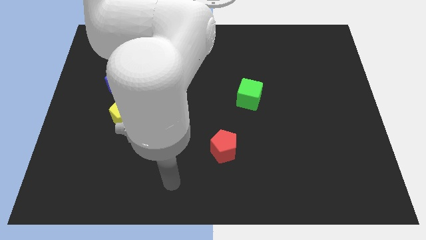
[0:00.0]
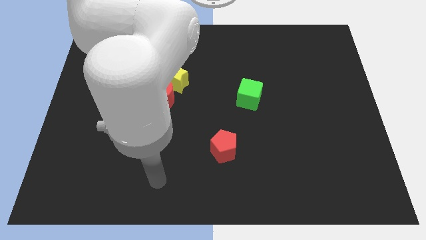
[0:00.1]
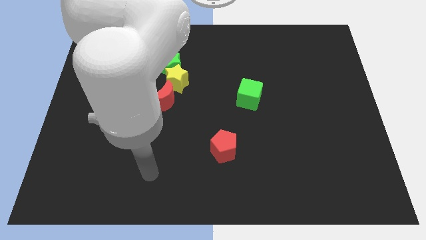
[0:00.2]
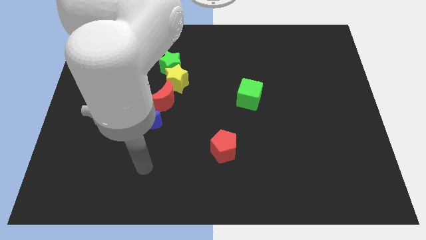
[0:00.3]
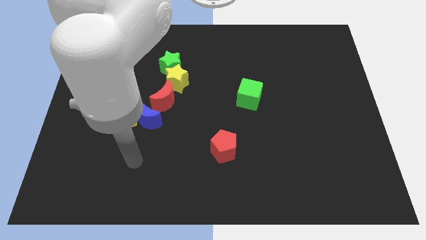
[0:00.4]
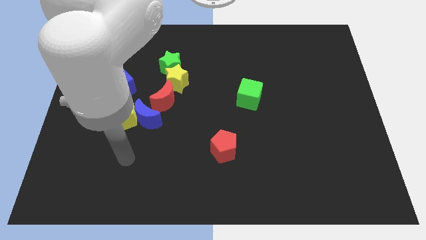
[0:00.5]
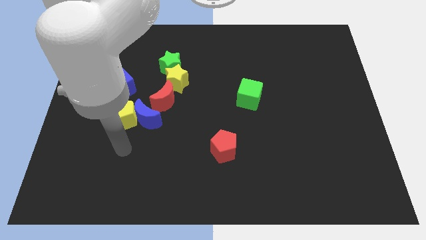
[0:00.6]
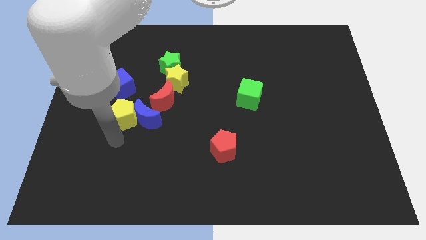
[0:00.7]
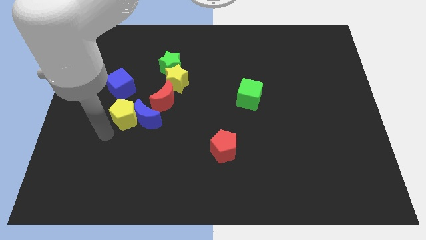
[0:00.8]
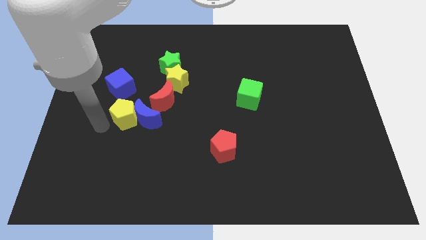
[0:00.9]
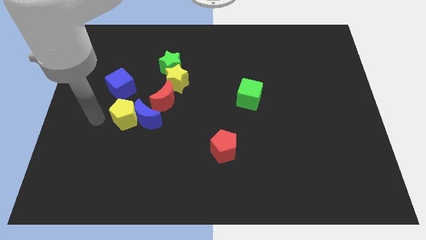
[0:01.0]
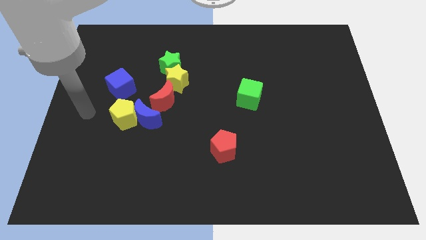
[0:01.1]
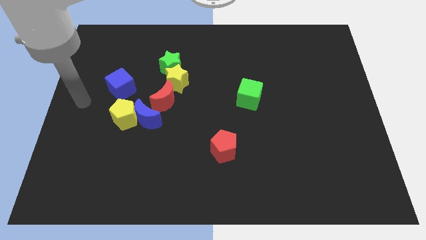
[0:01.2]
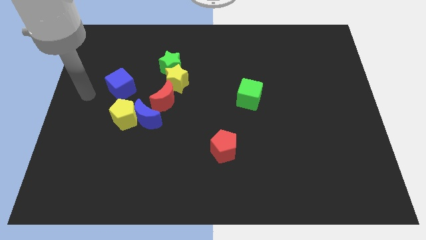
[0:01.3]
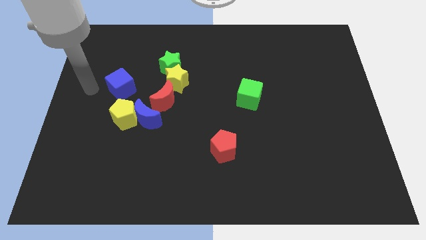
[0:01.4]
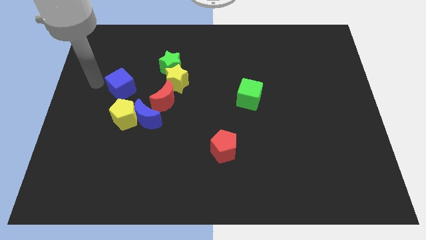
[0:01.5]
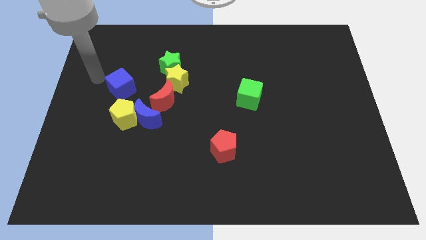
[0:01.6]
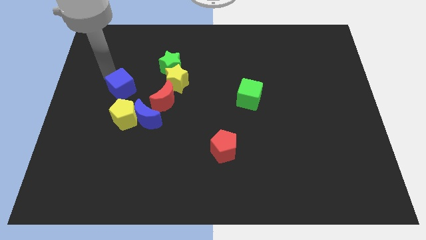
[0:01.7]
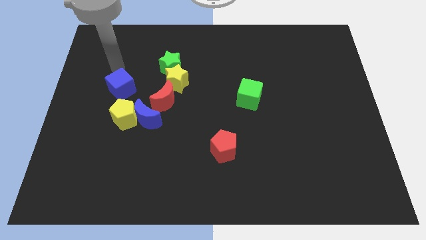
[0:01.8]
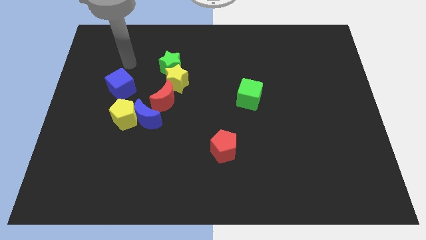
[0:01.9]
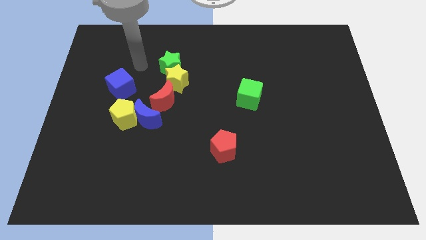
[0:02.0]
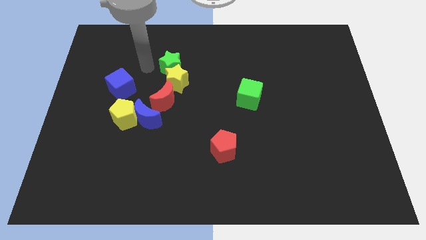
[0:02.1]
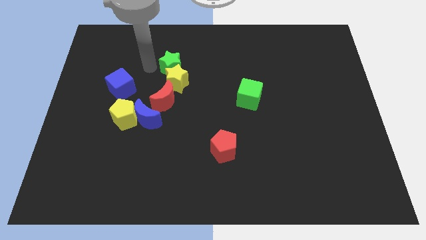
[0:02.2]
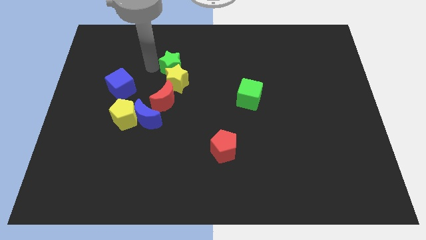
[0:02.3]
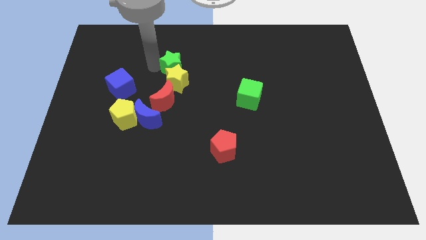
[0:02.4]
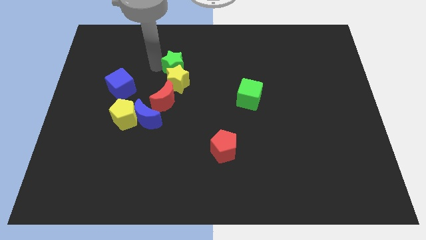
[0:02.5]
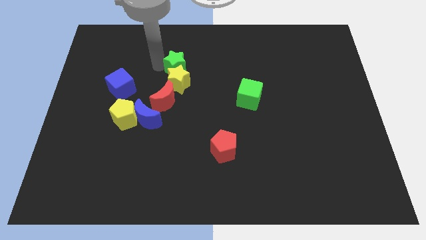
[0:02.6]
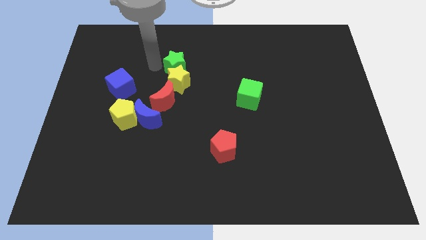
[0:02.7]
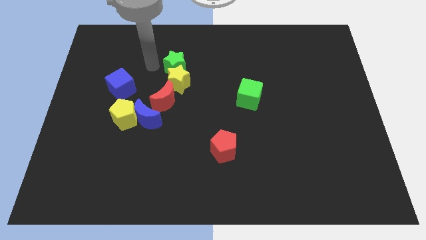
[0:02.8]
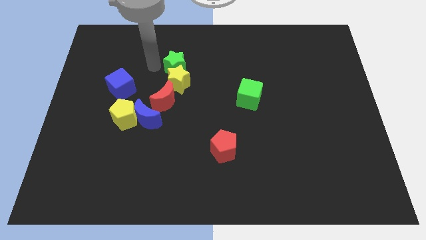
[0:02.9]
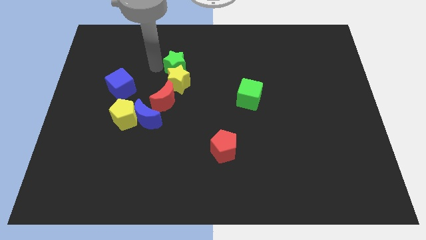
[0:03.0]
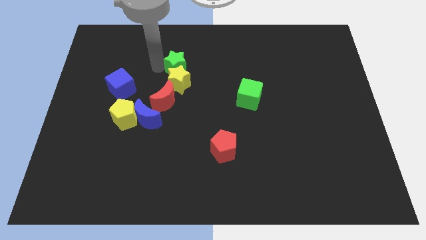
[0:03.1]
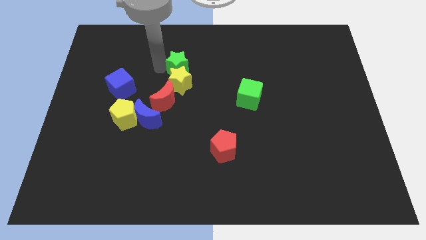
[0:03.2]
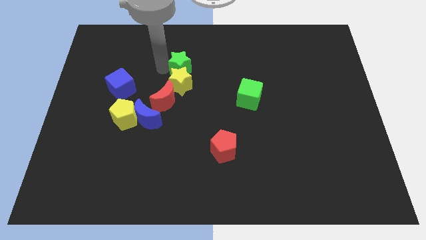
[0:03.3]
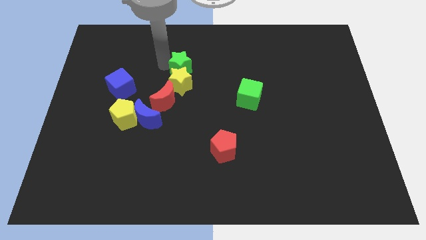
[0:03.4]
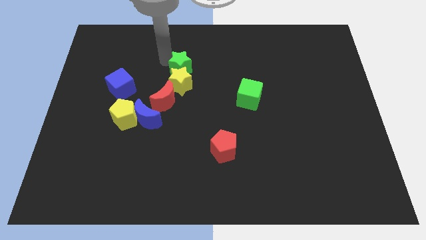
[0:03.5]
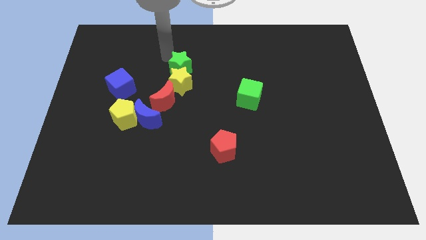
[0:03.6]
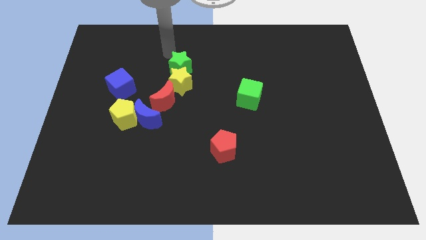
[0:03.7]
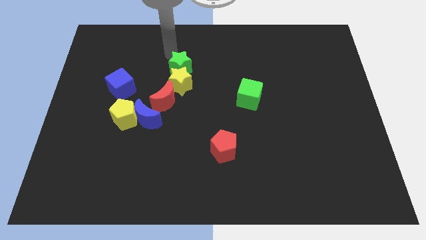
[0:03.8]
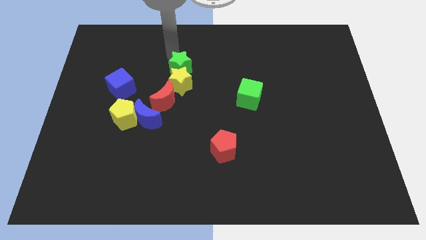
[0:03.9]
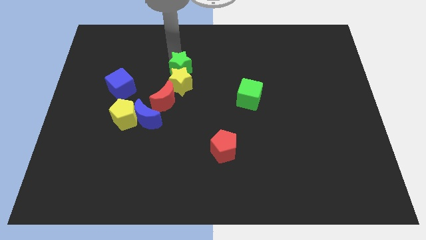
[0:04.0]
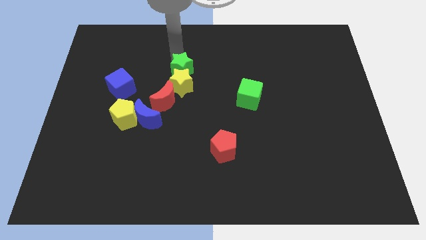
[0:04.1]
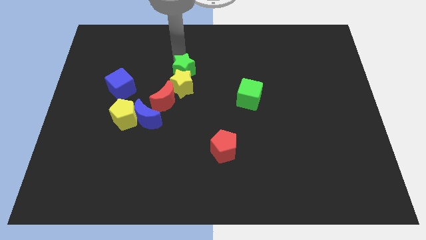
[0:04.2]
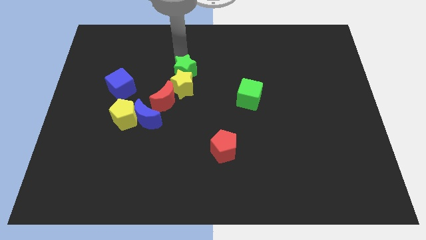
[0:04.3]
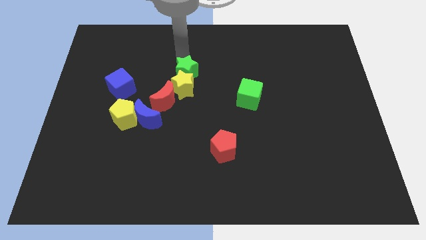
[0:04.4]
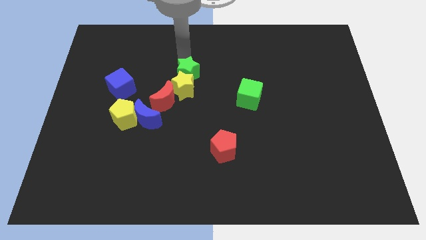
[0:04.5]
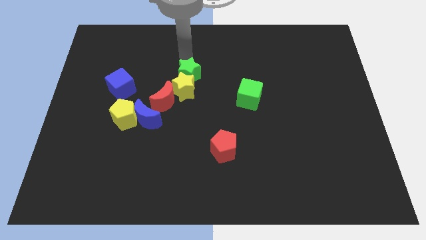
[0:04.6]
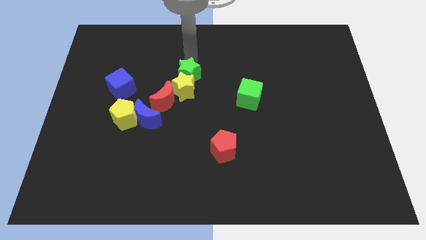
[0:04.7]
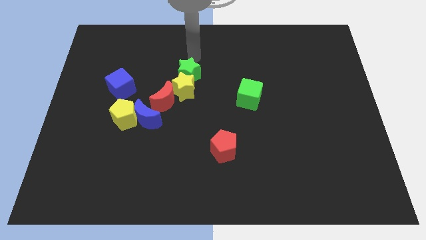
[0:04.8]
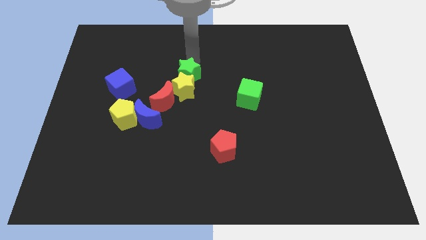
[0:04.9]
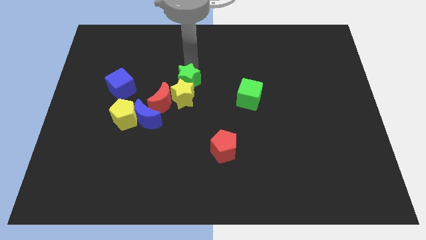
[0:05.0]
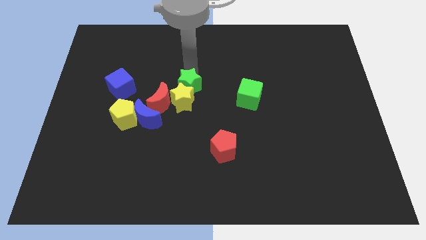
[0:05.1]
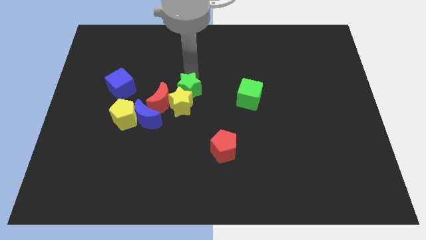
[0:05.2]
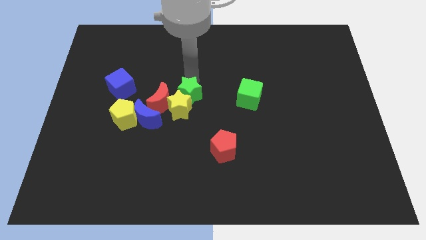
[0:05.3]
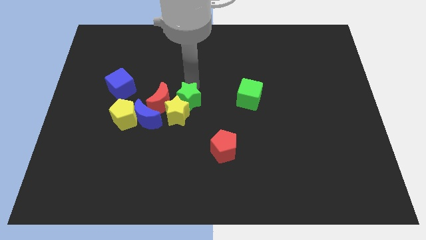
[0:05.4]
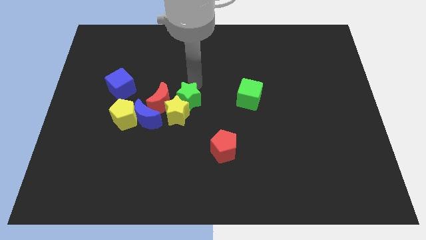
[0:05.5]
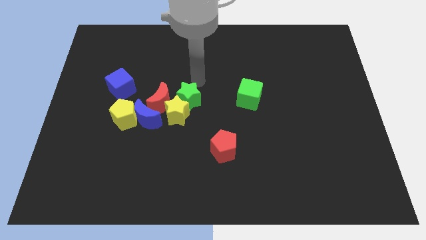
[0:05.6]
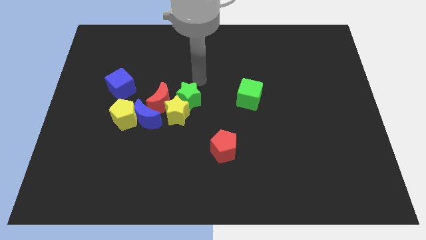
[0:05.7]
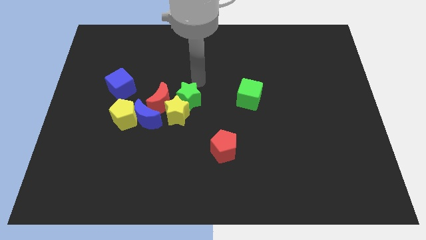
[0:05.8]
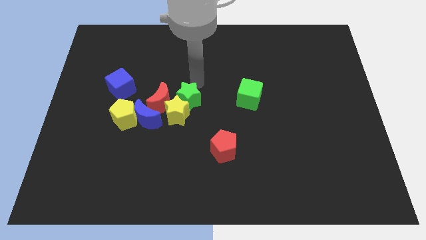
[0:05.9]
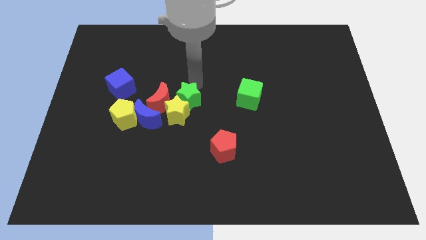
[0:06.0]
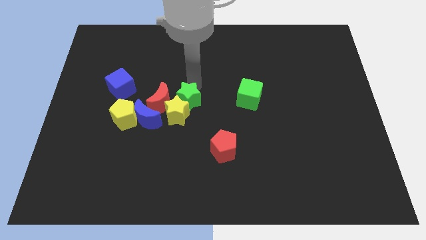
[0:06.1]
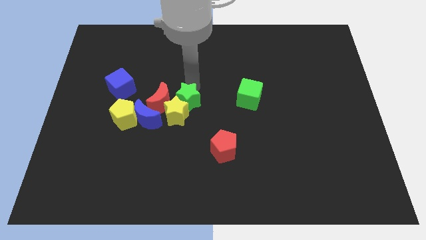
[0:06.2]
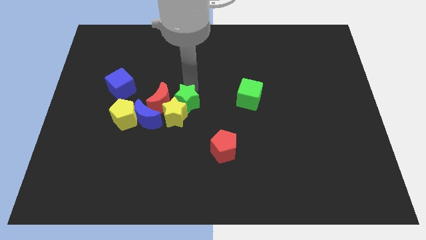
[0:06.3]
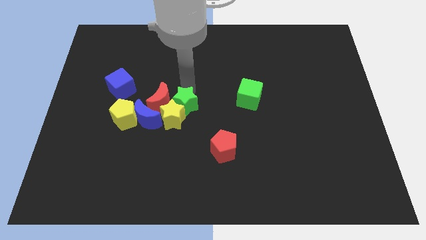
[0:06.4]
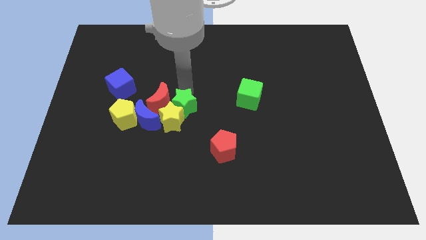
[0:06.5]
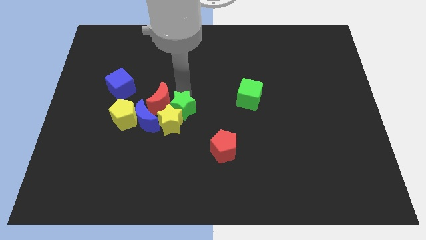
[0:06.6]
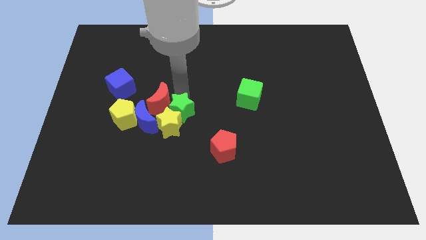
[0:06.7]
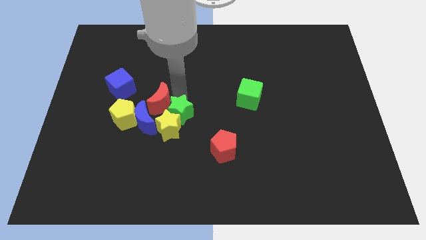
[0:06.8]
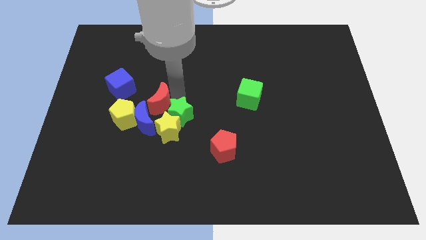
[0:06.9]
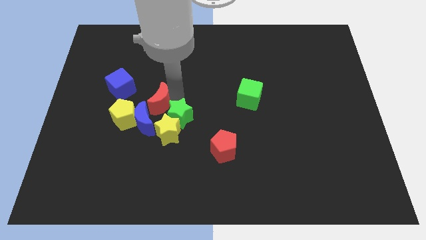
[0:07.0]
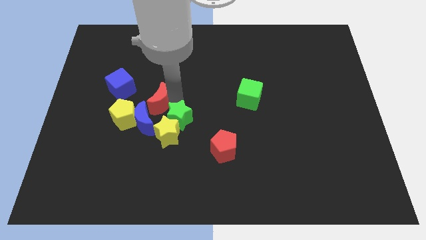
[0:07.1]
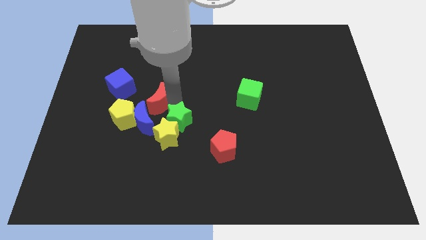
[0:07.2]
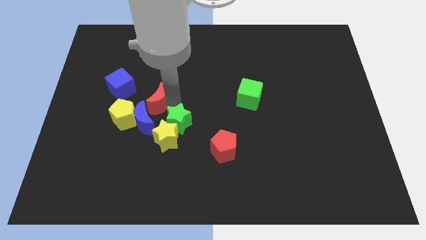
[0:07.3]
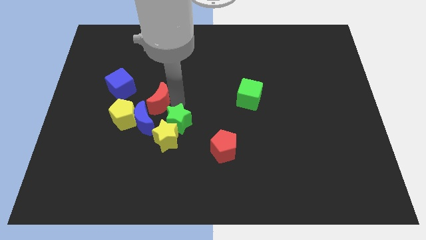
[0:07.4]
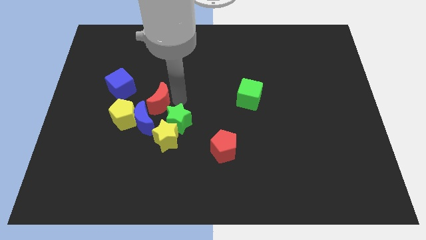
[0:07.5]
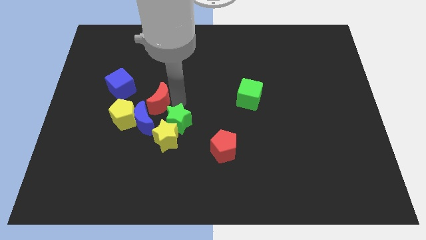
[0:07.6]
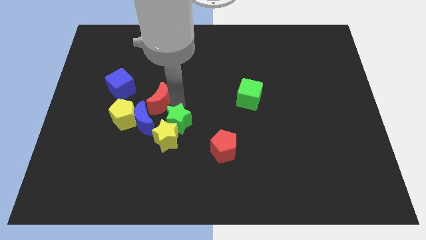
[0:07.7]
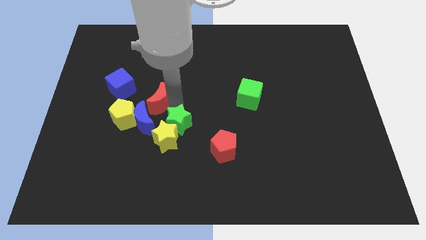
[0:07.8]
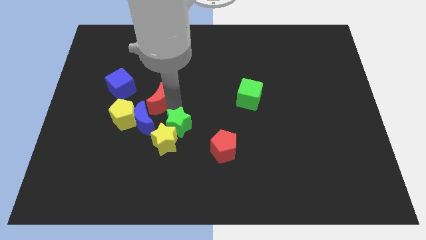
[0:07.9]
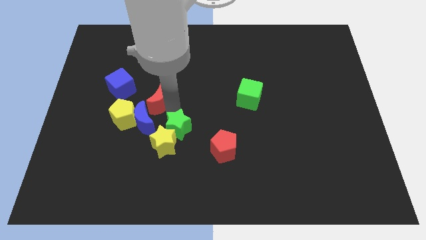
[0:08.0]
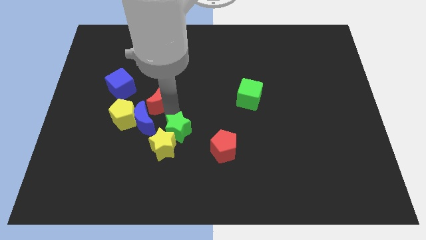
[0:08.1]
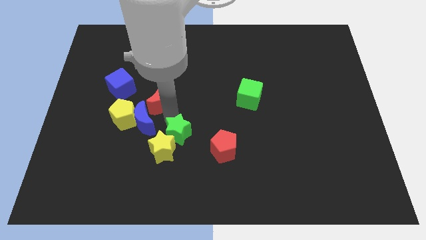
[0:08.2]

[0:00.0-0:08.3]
slide the green star downwards

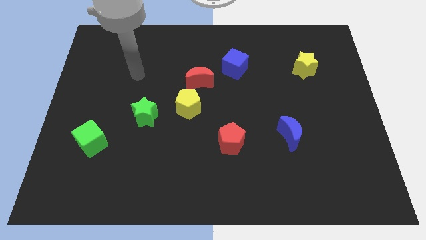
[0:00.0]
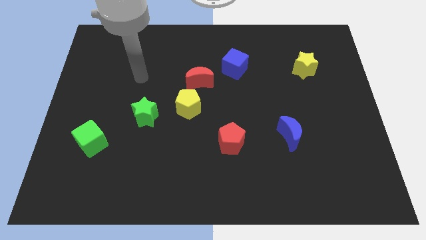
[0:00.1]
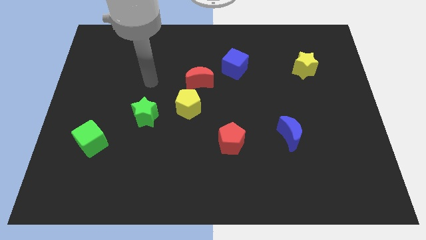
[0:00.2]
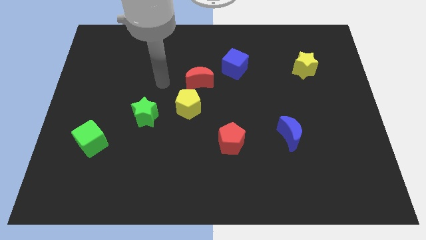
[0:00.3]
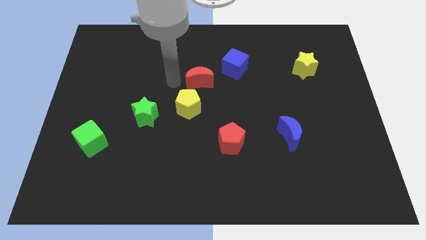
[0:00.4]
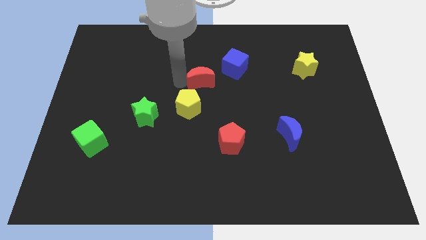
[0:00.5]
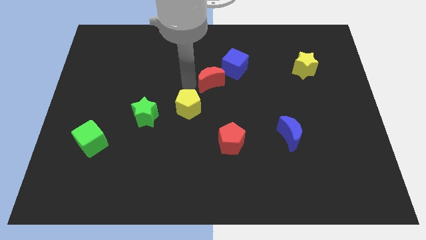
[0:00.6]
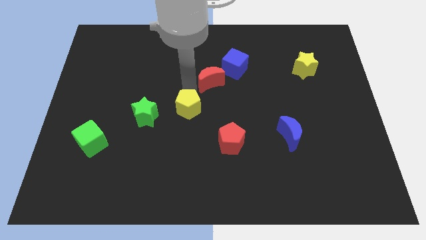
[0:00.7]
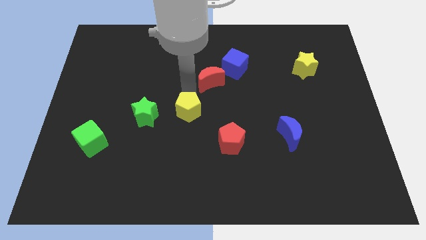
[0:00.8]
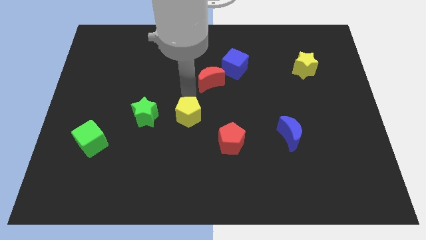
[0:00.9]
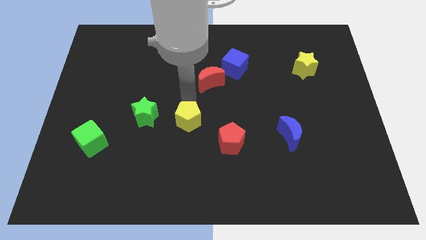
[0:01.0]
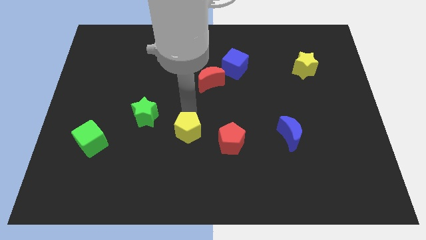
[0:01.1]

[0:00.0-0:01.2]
push the yellow pentagon a little bit down
